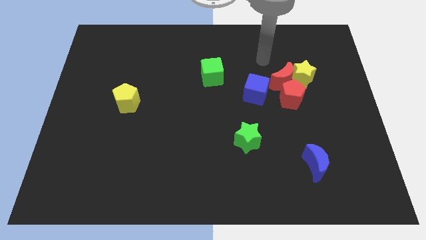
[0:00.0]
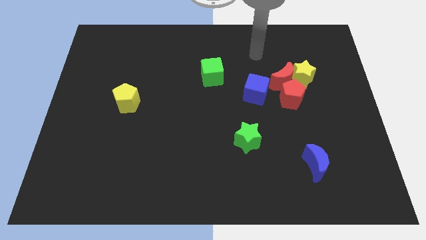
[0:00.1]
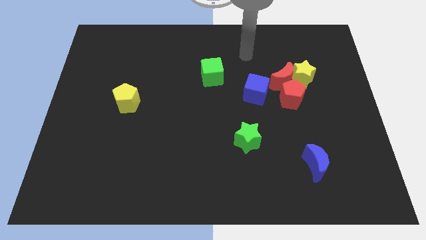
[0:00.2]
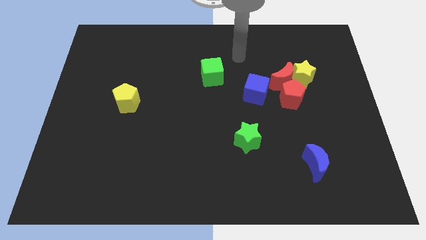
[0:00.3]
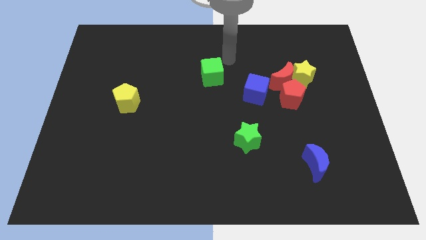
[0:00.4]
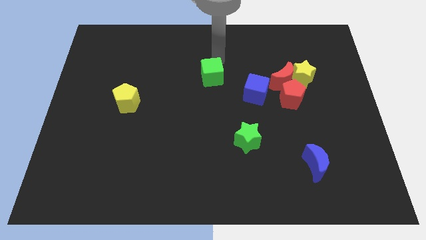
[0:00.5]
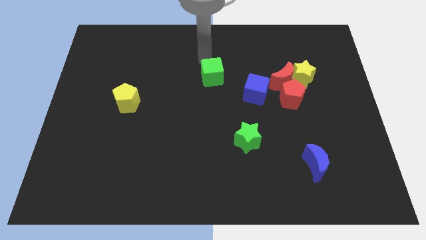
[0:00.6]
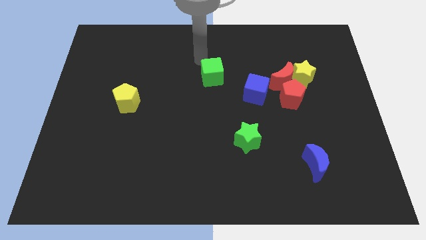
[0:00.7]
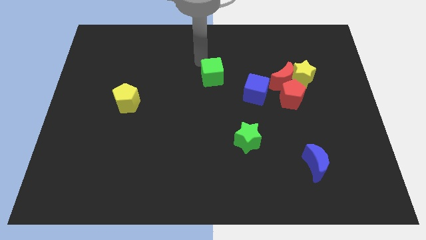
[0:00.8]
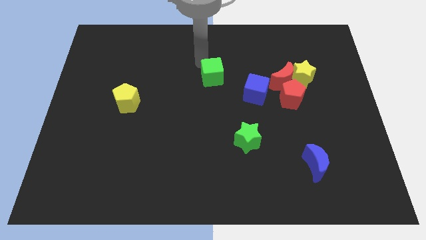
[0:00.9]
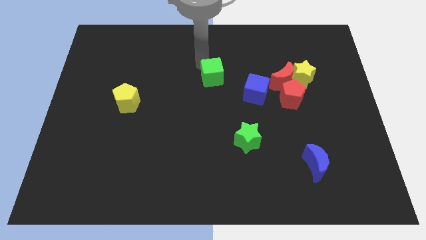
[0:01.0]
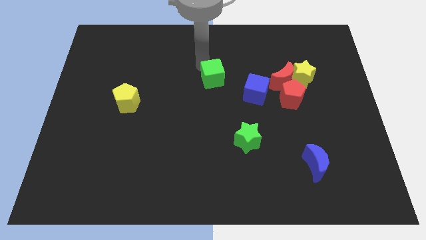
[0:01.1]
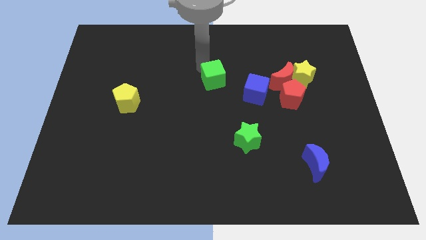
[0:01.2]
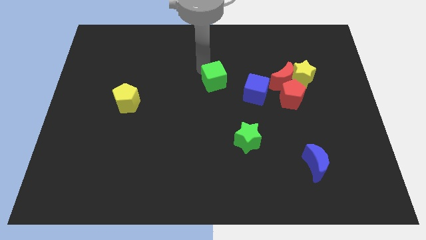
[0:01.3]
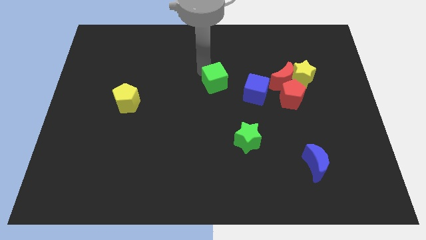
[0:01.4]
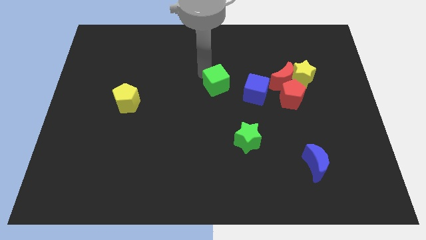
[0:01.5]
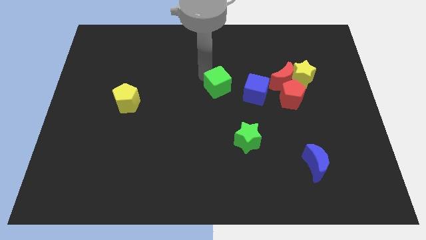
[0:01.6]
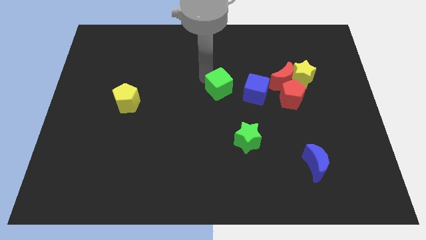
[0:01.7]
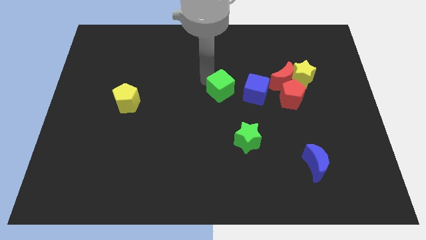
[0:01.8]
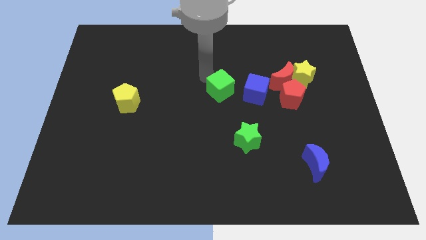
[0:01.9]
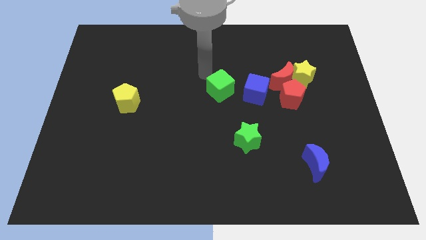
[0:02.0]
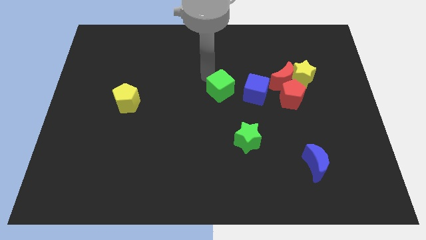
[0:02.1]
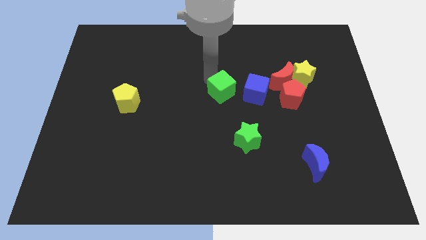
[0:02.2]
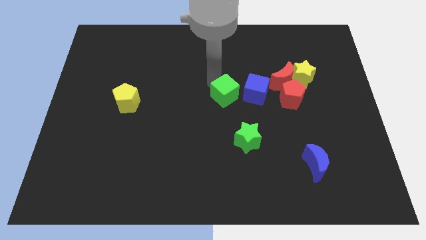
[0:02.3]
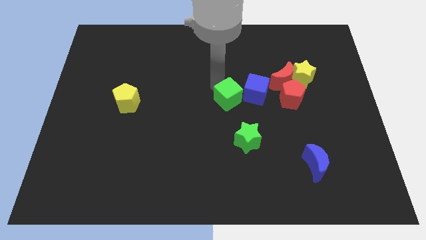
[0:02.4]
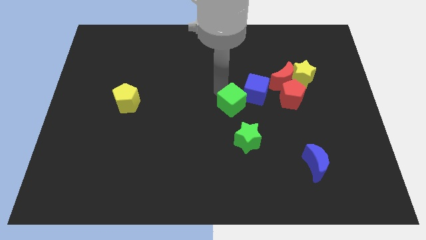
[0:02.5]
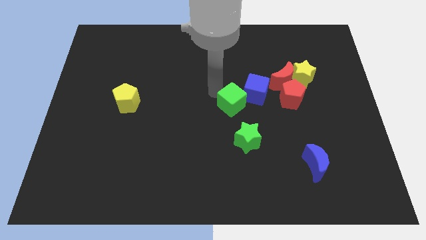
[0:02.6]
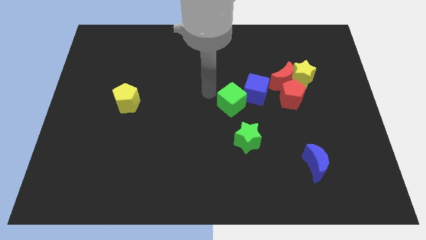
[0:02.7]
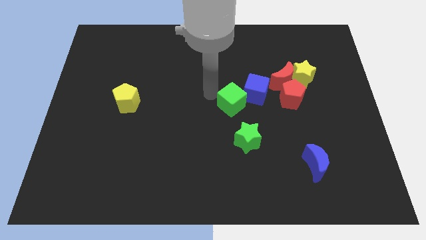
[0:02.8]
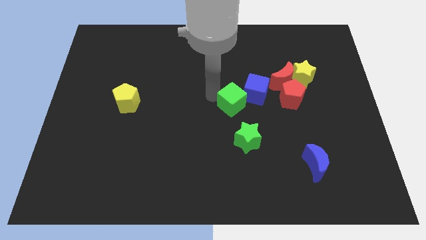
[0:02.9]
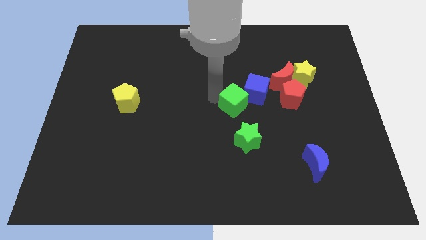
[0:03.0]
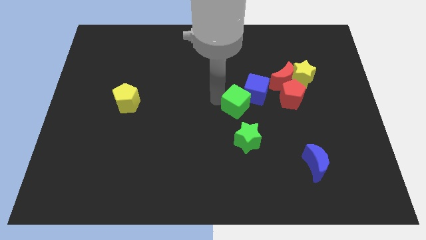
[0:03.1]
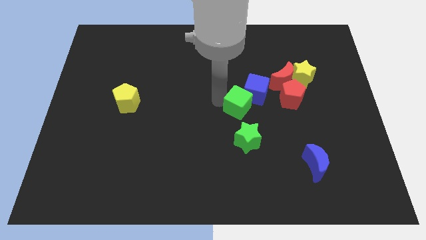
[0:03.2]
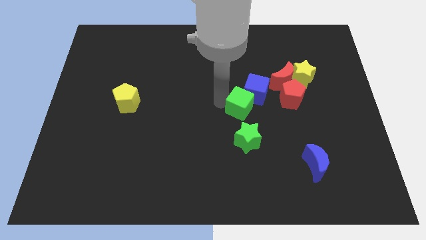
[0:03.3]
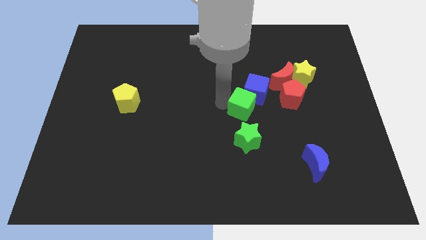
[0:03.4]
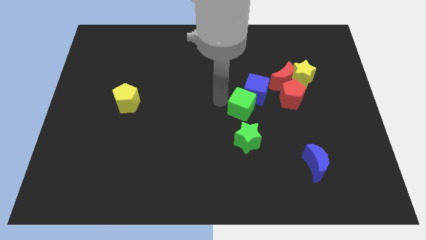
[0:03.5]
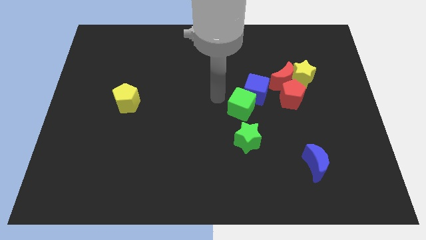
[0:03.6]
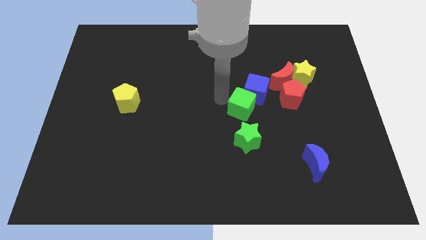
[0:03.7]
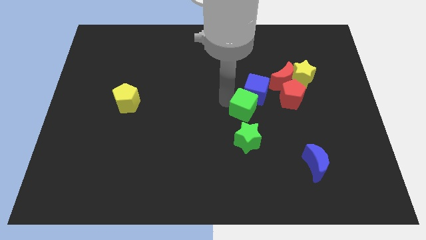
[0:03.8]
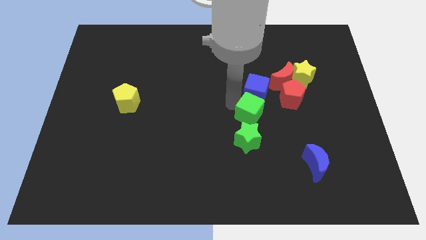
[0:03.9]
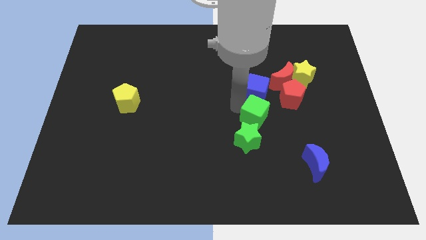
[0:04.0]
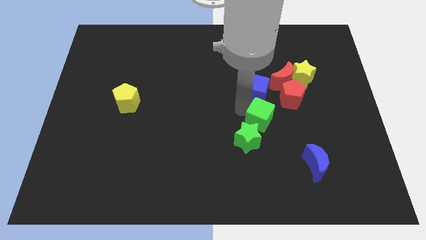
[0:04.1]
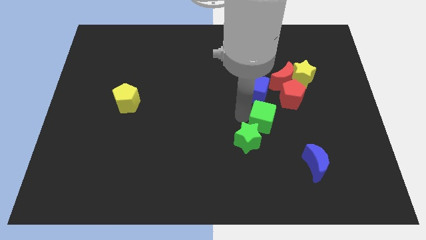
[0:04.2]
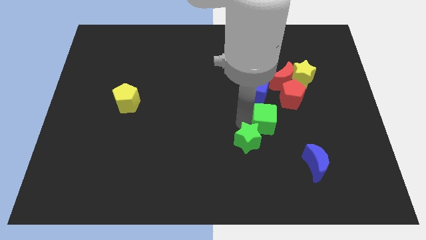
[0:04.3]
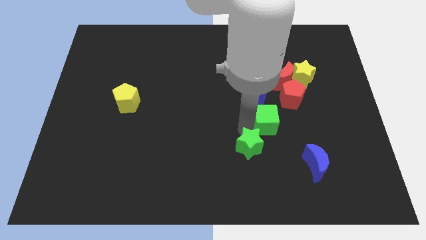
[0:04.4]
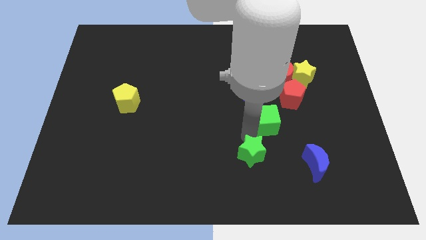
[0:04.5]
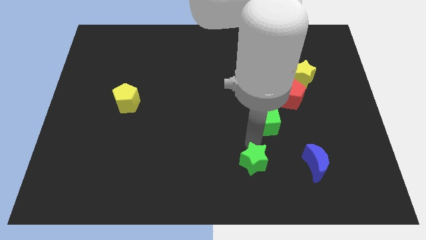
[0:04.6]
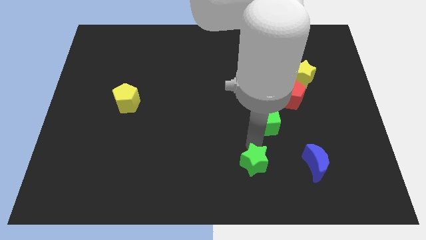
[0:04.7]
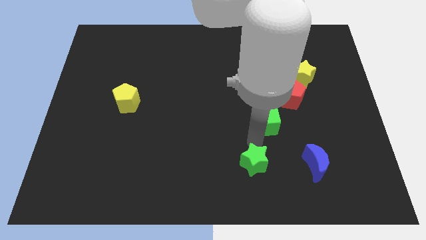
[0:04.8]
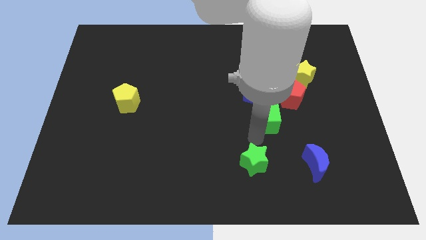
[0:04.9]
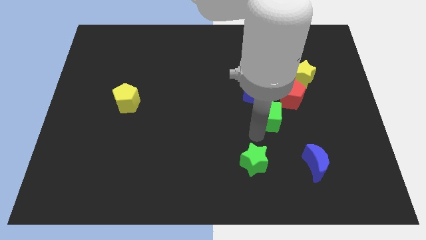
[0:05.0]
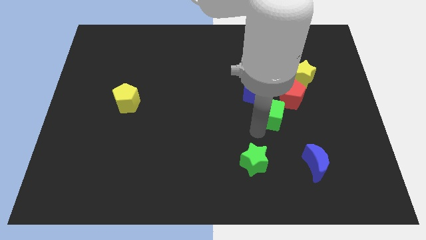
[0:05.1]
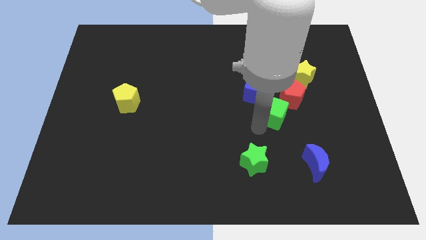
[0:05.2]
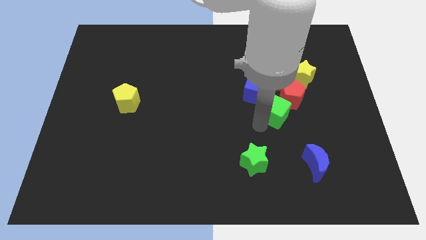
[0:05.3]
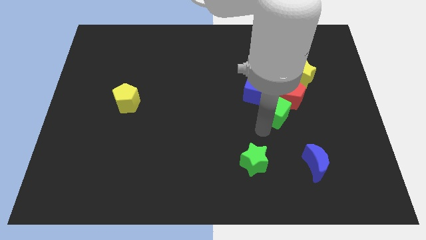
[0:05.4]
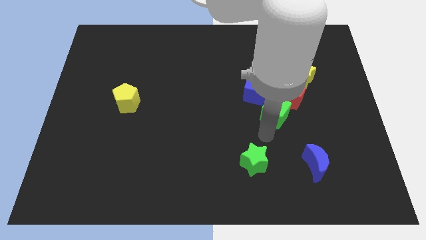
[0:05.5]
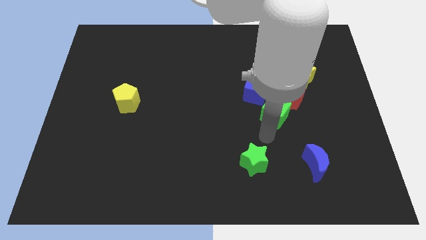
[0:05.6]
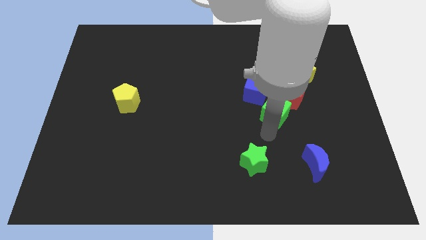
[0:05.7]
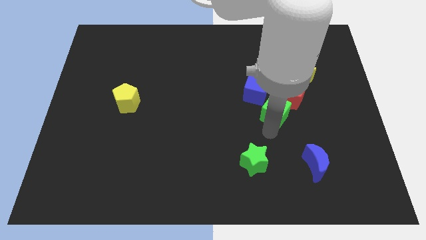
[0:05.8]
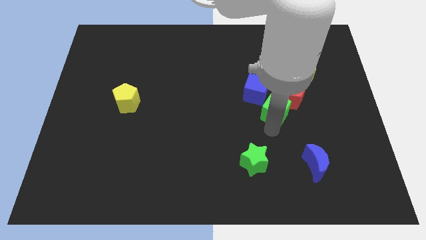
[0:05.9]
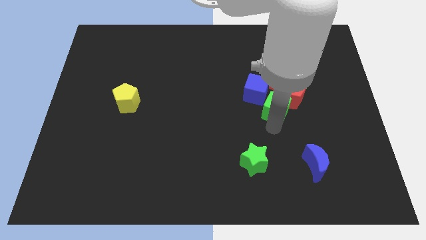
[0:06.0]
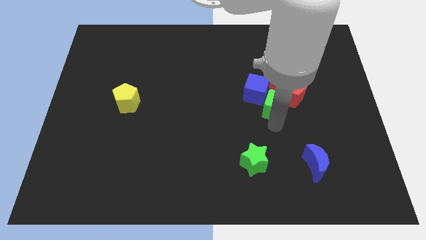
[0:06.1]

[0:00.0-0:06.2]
slide the green cube diagonally down and to the left of the yellow star
